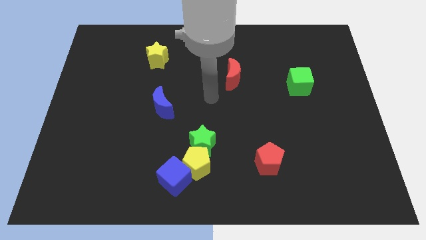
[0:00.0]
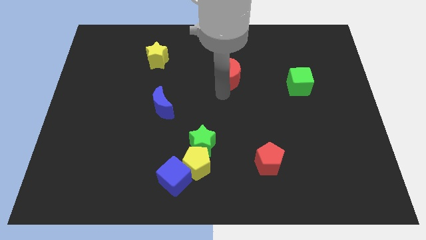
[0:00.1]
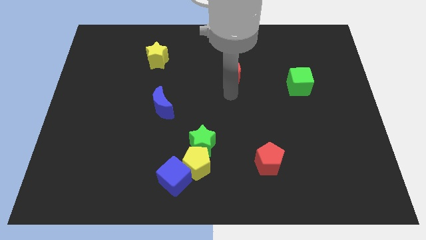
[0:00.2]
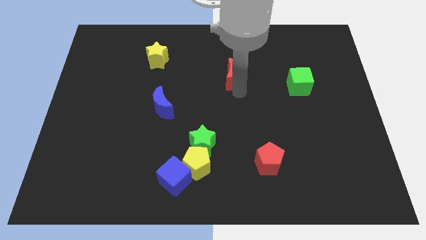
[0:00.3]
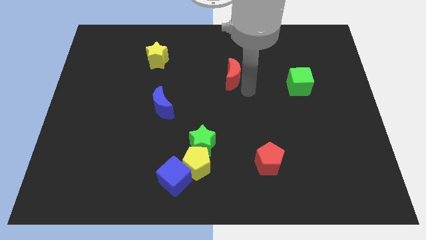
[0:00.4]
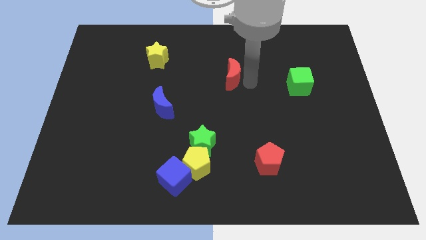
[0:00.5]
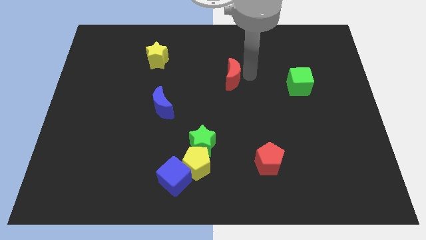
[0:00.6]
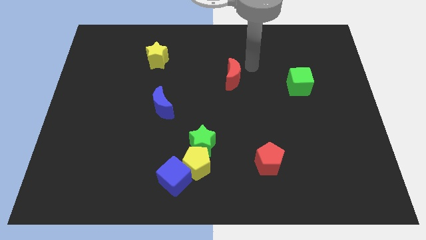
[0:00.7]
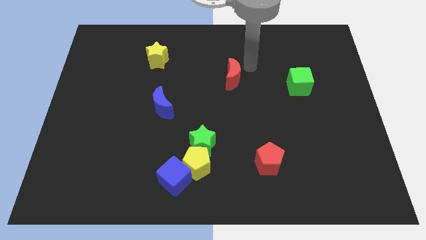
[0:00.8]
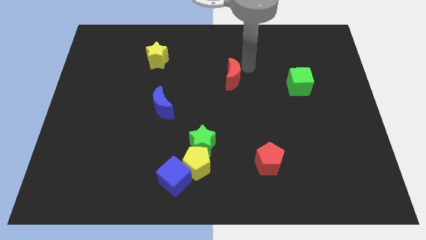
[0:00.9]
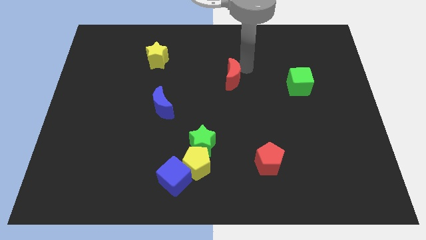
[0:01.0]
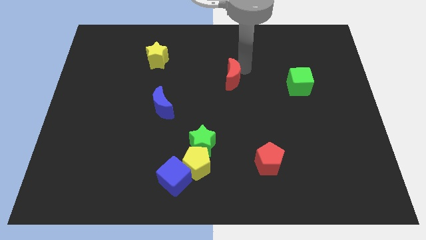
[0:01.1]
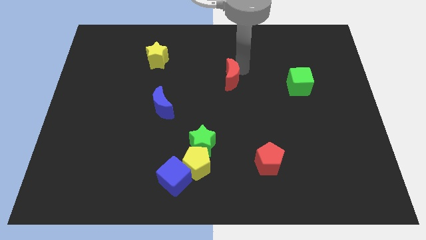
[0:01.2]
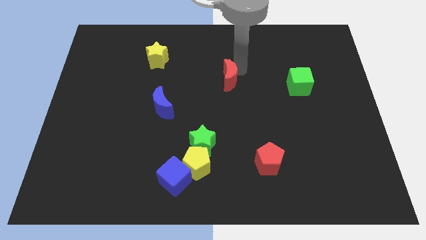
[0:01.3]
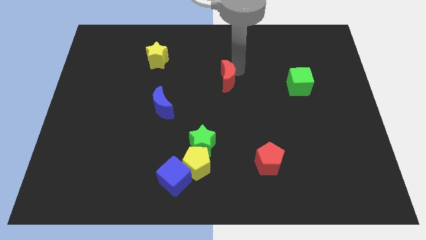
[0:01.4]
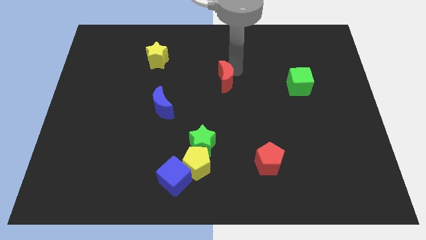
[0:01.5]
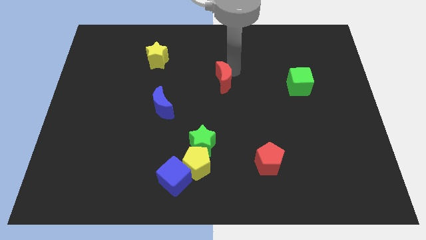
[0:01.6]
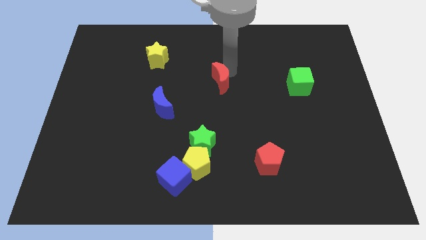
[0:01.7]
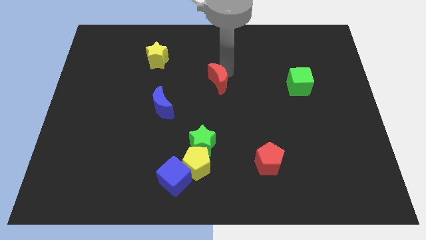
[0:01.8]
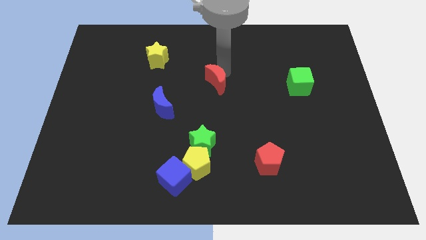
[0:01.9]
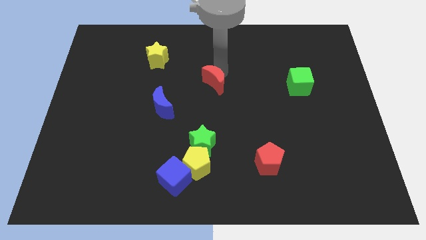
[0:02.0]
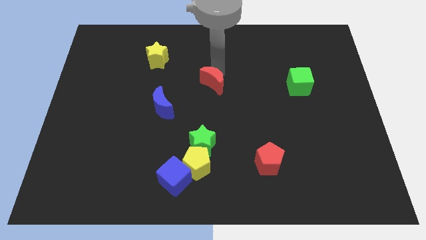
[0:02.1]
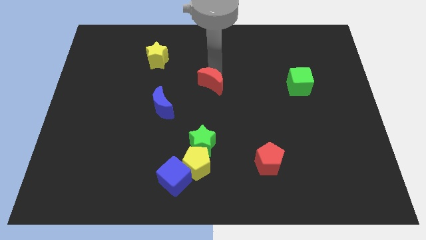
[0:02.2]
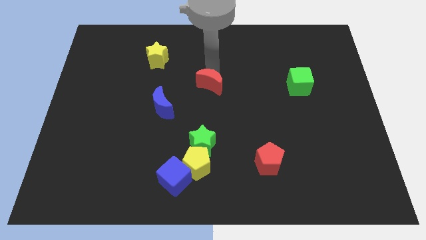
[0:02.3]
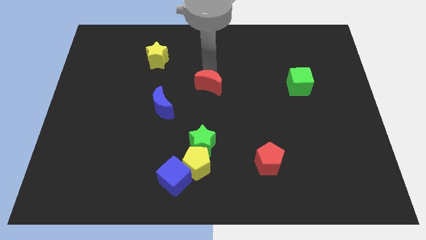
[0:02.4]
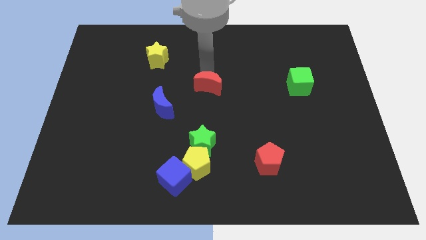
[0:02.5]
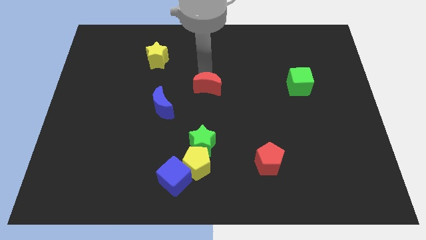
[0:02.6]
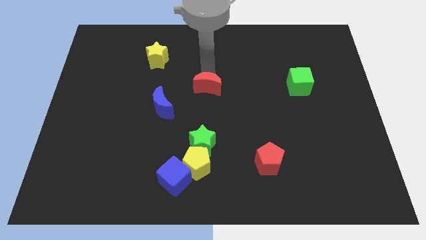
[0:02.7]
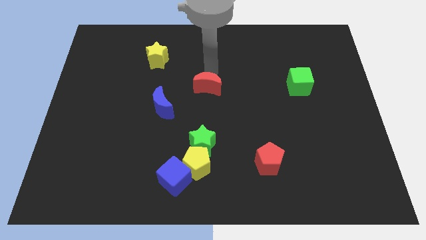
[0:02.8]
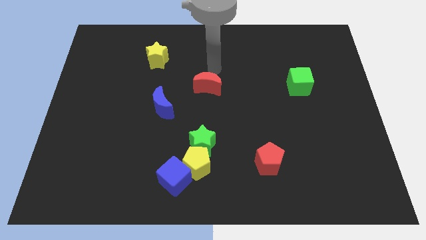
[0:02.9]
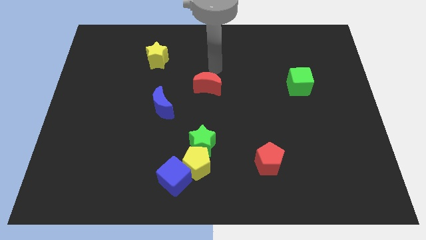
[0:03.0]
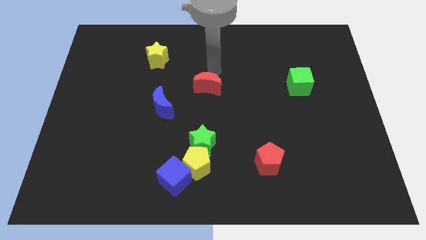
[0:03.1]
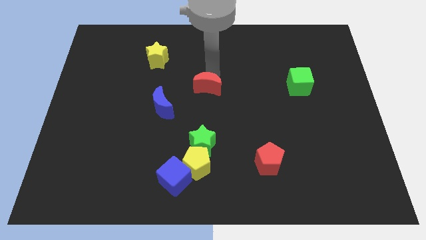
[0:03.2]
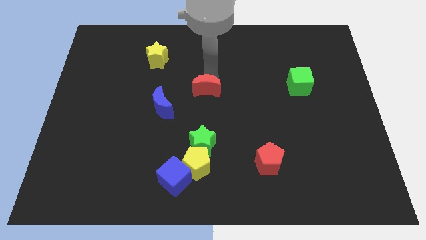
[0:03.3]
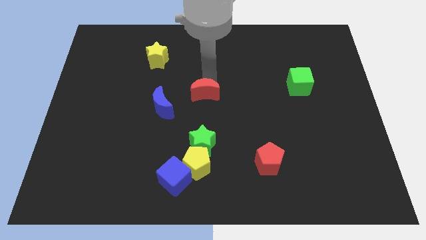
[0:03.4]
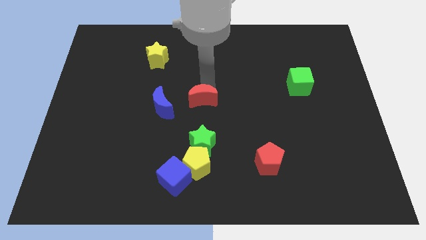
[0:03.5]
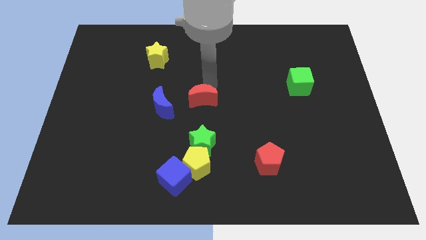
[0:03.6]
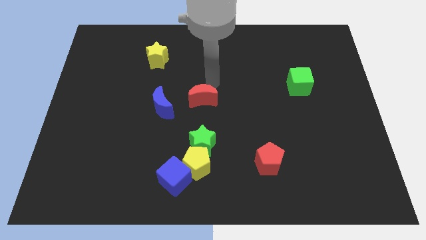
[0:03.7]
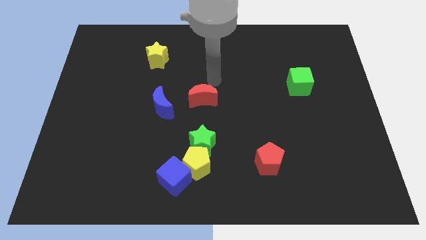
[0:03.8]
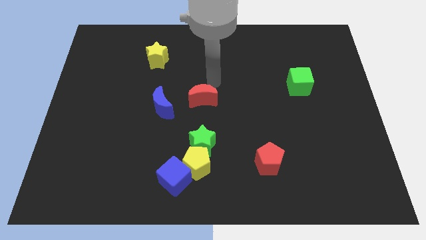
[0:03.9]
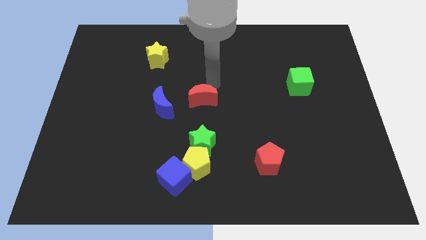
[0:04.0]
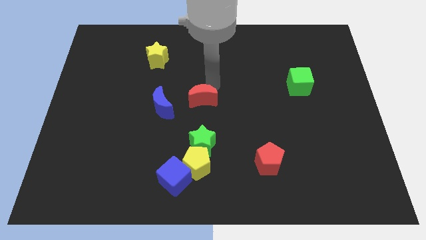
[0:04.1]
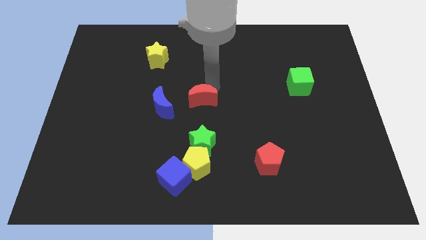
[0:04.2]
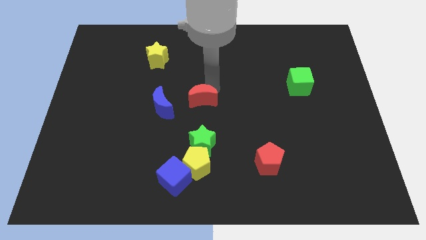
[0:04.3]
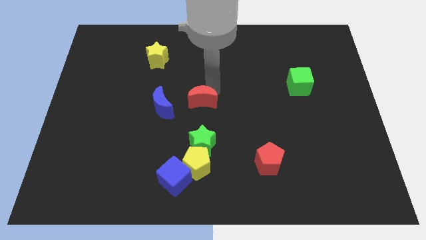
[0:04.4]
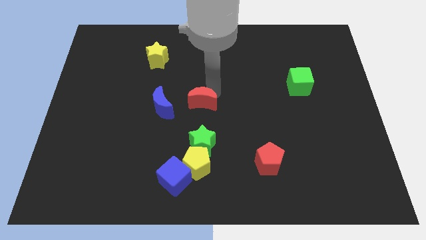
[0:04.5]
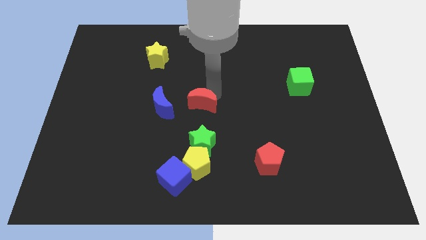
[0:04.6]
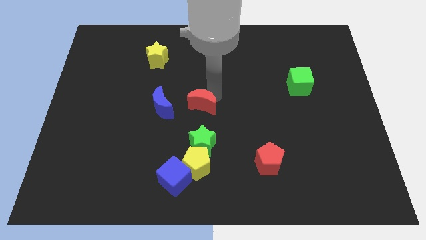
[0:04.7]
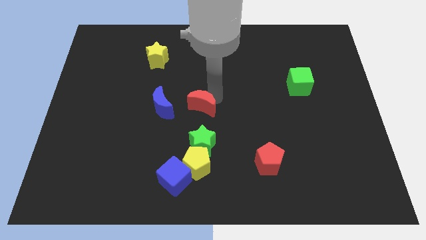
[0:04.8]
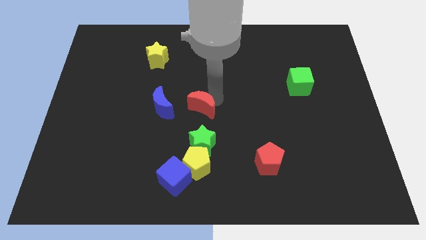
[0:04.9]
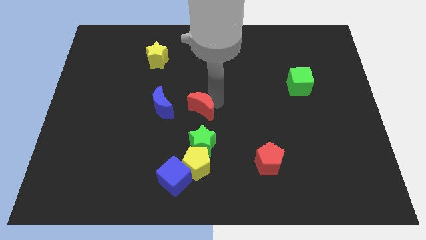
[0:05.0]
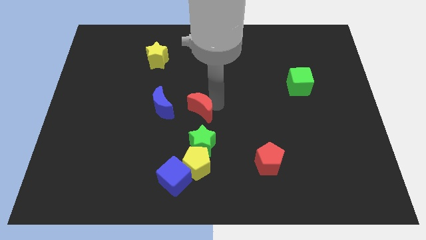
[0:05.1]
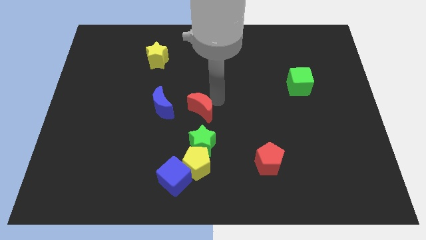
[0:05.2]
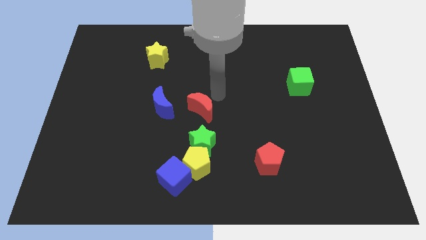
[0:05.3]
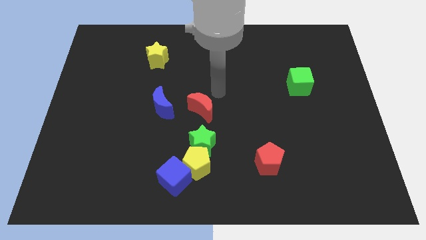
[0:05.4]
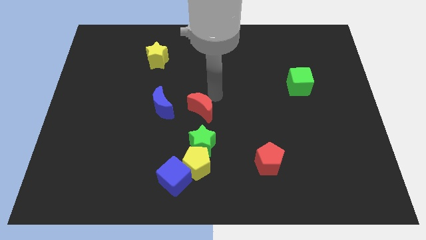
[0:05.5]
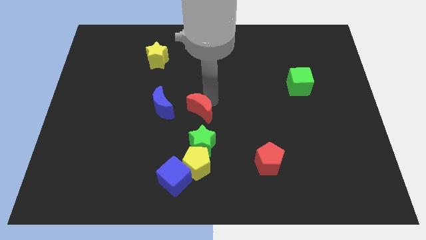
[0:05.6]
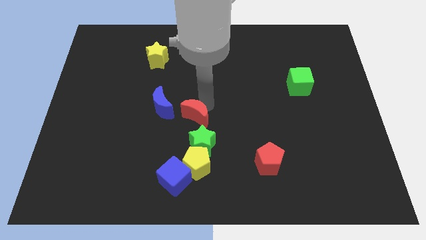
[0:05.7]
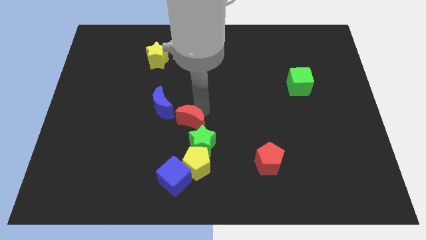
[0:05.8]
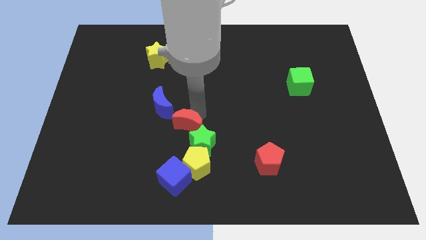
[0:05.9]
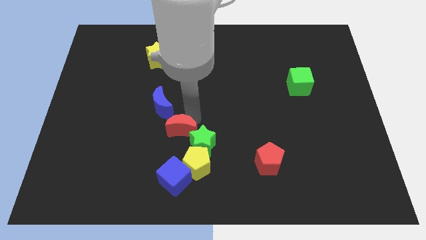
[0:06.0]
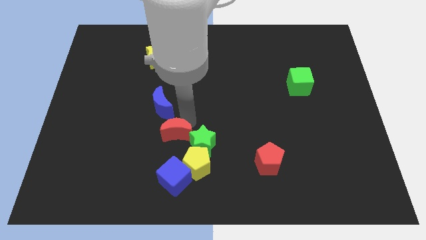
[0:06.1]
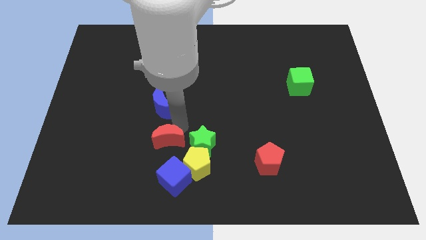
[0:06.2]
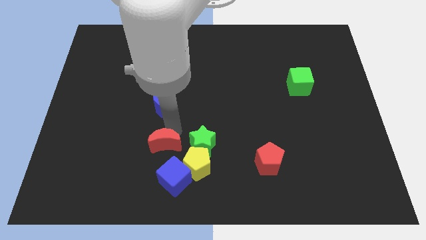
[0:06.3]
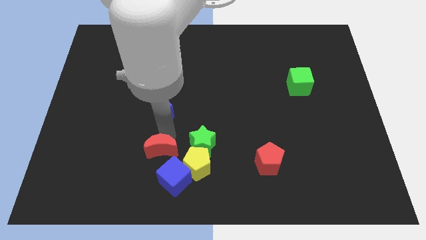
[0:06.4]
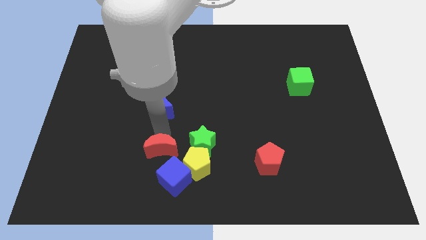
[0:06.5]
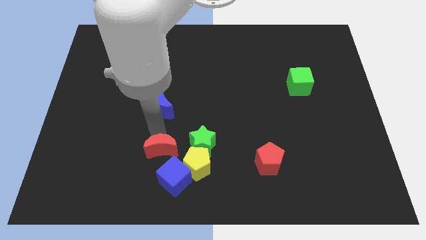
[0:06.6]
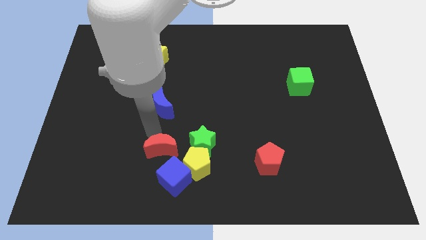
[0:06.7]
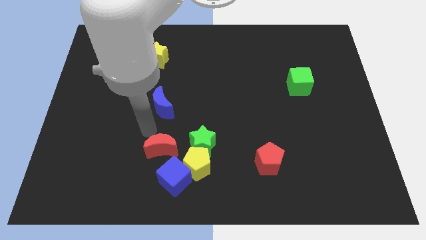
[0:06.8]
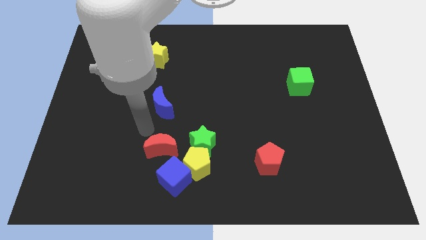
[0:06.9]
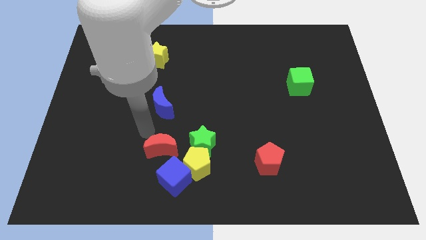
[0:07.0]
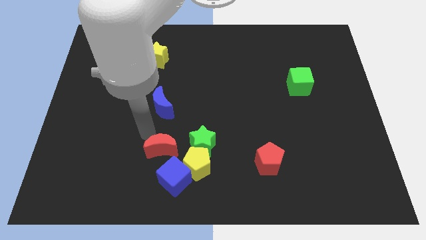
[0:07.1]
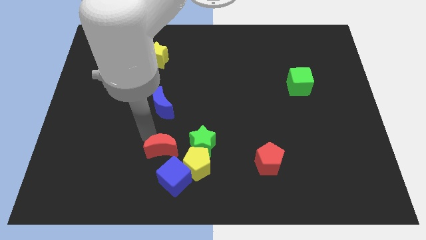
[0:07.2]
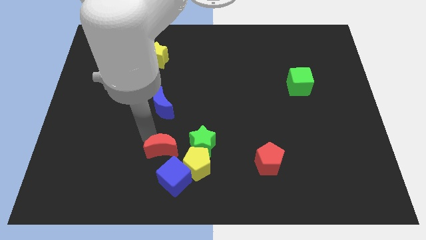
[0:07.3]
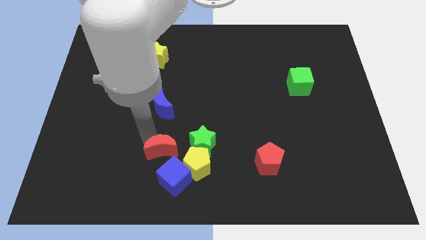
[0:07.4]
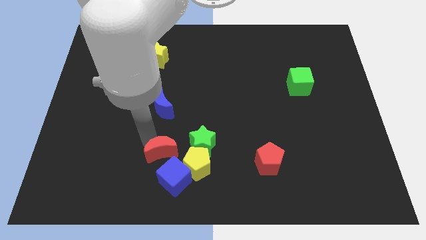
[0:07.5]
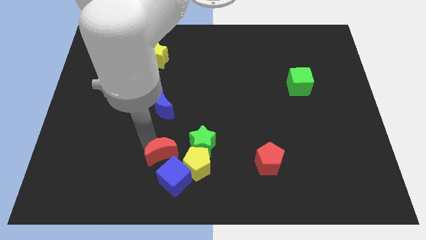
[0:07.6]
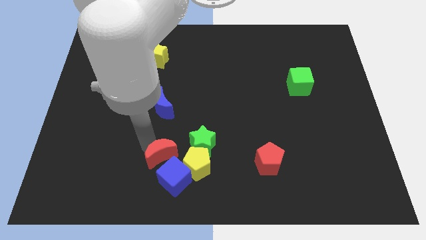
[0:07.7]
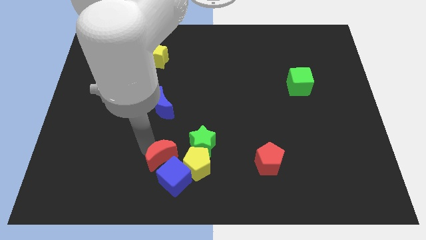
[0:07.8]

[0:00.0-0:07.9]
put the red moon next to the blue cube
